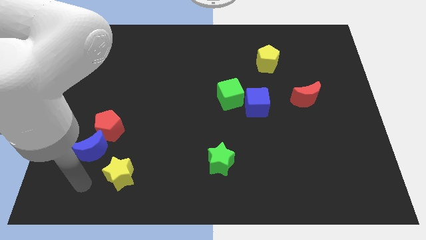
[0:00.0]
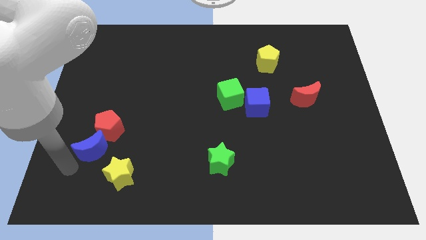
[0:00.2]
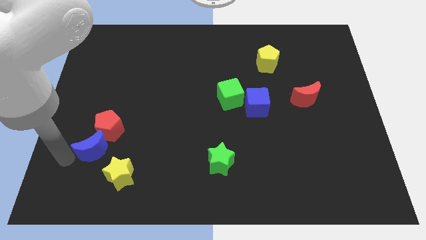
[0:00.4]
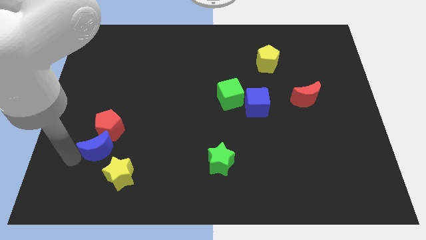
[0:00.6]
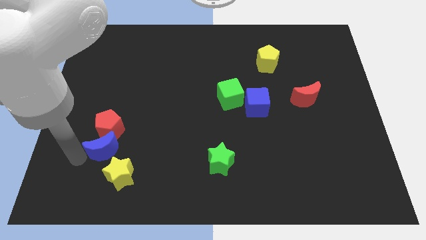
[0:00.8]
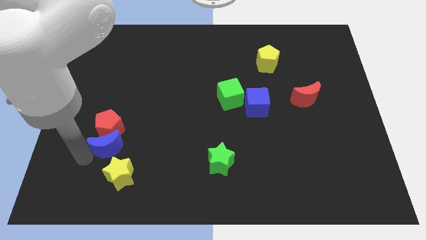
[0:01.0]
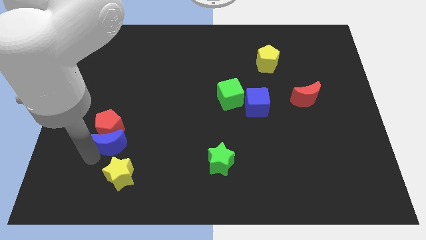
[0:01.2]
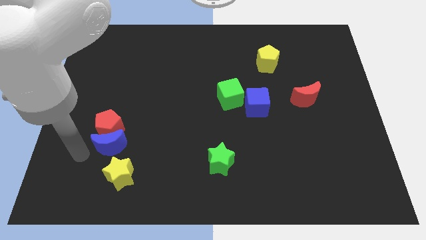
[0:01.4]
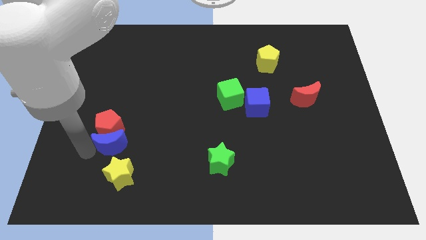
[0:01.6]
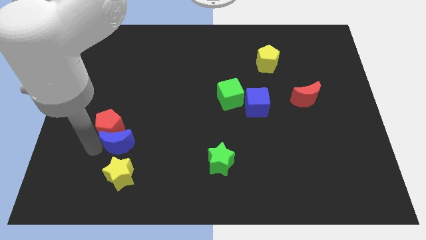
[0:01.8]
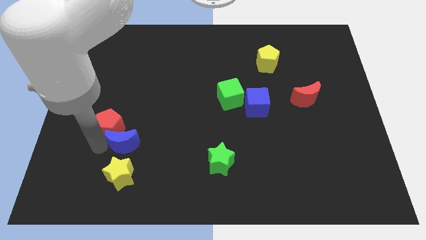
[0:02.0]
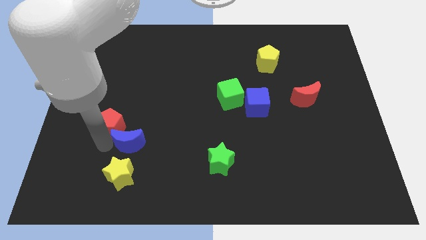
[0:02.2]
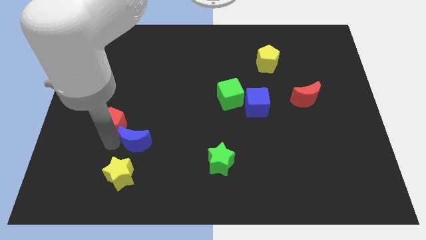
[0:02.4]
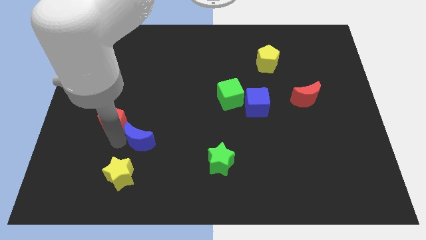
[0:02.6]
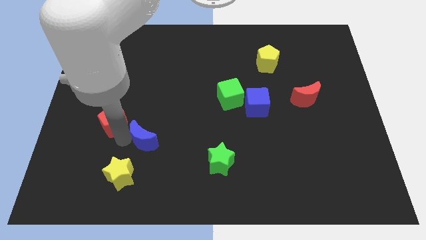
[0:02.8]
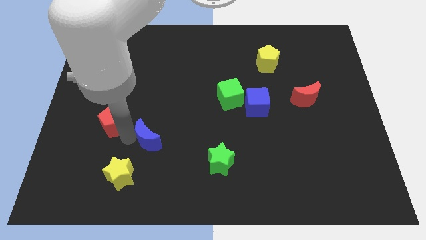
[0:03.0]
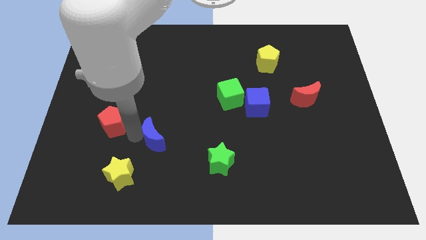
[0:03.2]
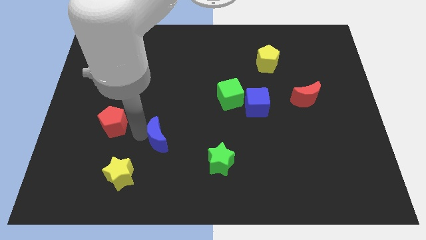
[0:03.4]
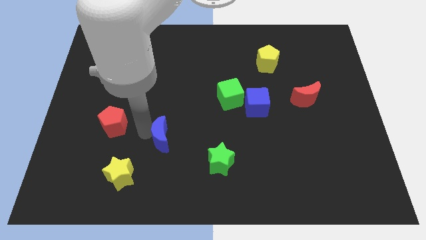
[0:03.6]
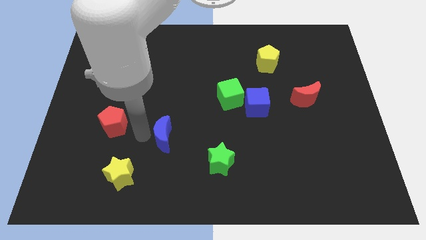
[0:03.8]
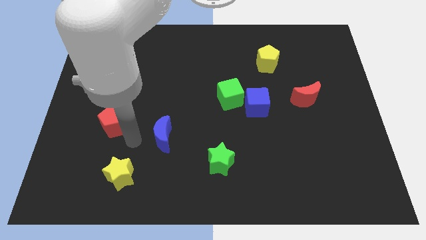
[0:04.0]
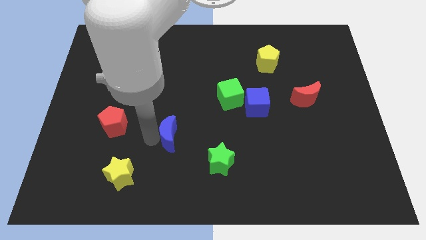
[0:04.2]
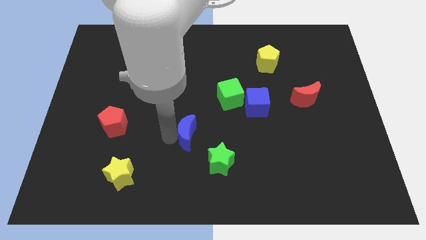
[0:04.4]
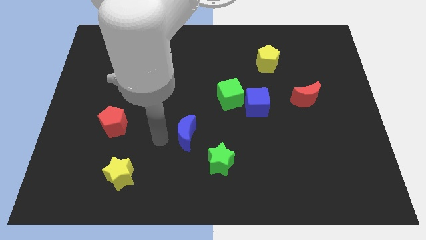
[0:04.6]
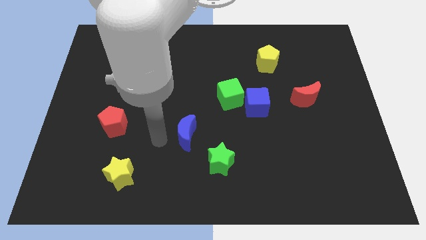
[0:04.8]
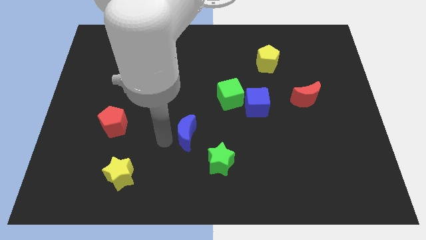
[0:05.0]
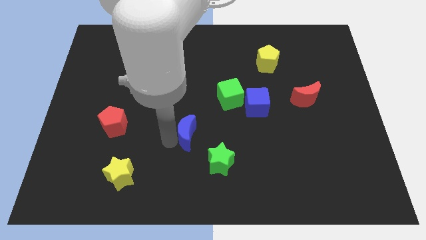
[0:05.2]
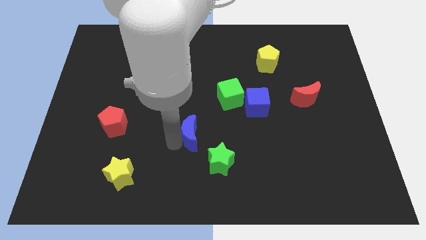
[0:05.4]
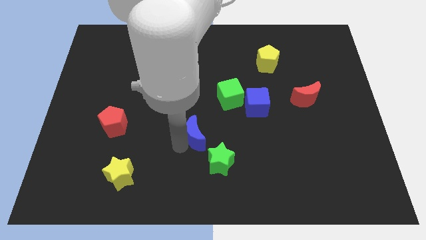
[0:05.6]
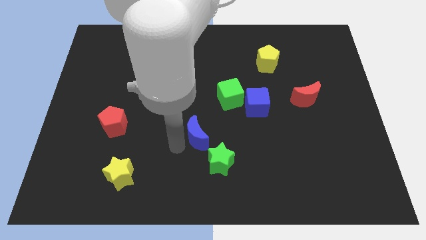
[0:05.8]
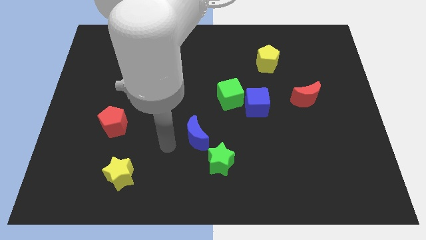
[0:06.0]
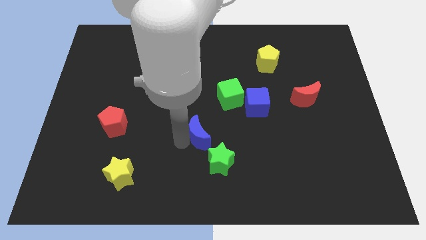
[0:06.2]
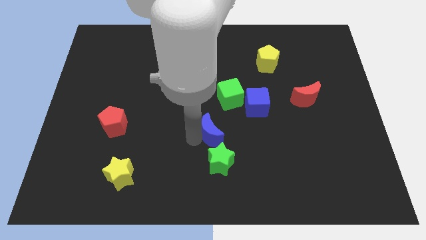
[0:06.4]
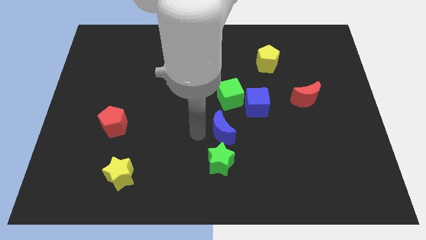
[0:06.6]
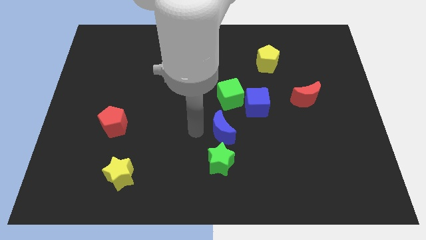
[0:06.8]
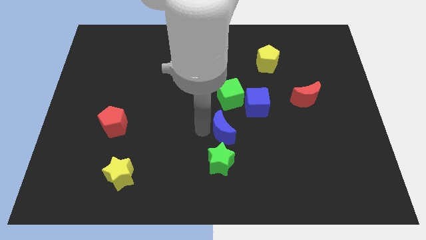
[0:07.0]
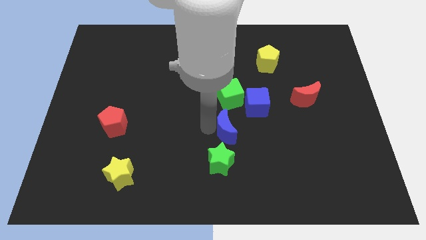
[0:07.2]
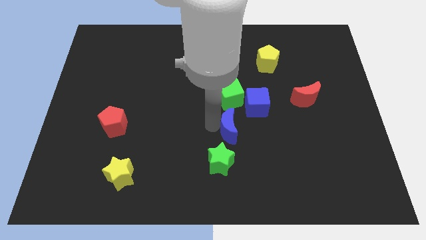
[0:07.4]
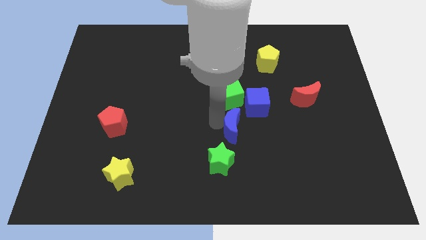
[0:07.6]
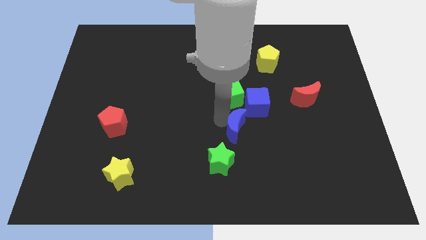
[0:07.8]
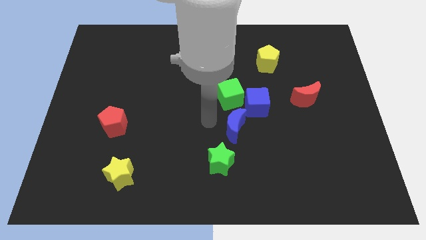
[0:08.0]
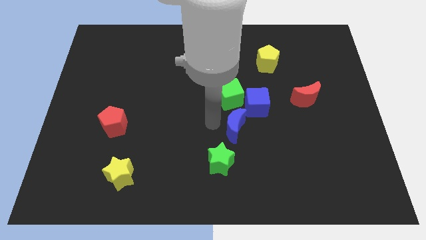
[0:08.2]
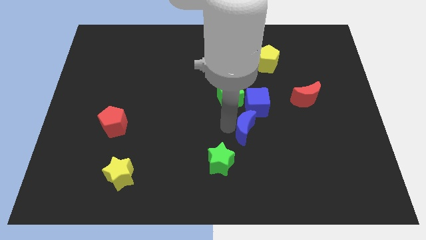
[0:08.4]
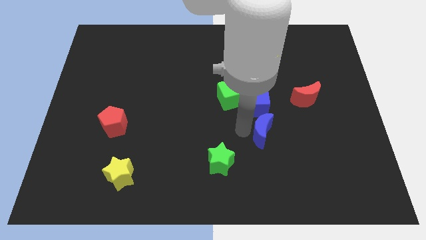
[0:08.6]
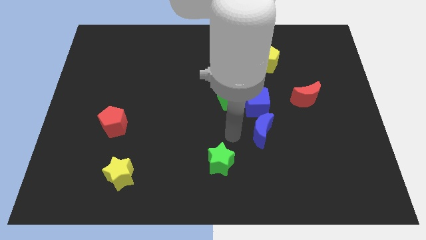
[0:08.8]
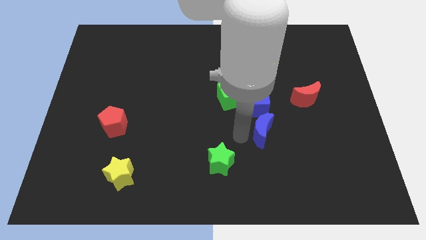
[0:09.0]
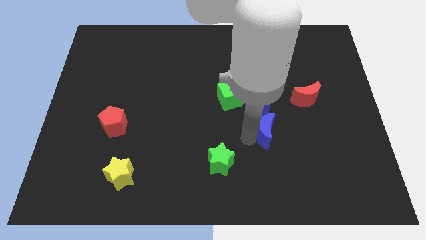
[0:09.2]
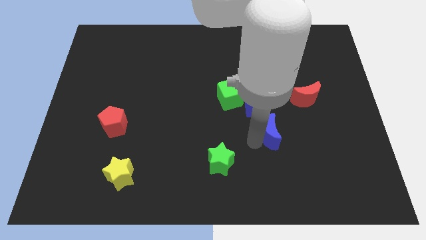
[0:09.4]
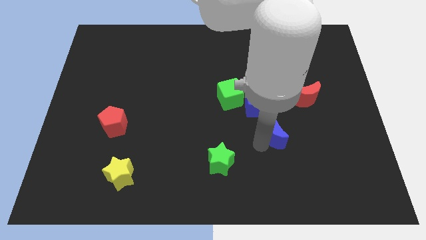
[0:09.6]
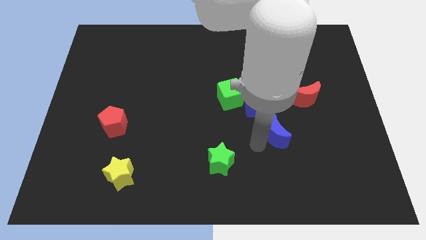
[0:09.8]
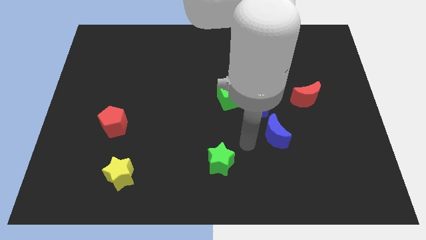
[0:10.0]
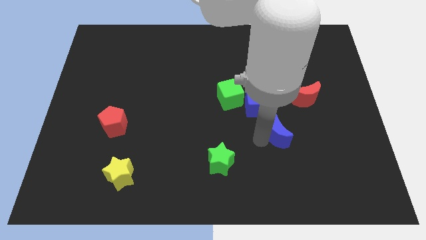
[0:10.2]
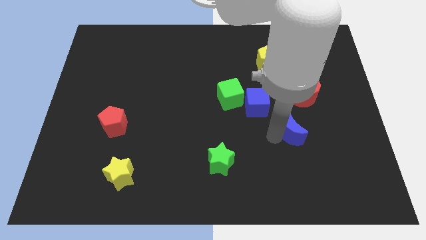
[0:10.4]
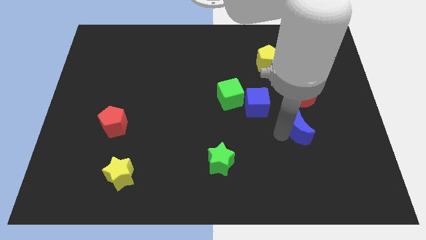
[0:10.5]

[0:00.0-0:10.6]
move the blue moon below the red moon

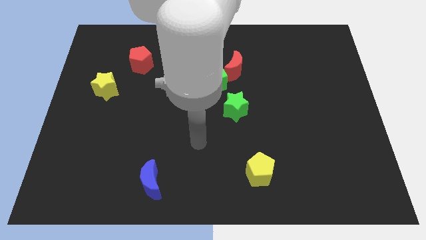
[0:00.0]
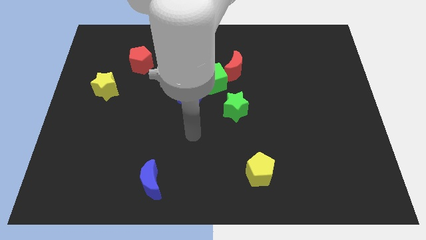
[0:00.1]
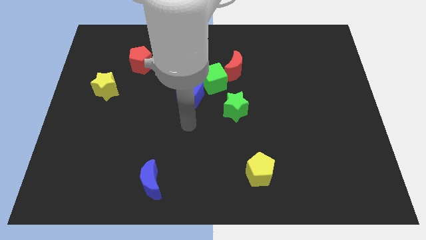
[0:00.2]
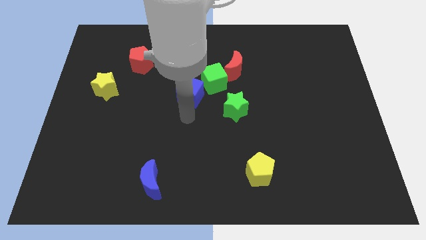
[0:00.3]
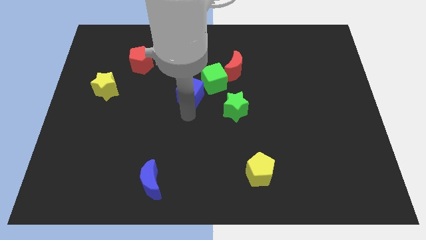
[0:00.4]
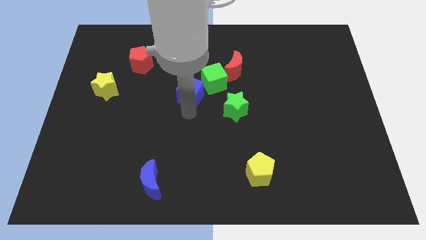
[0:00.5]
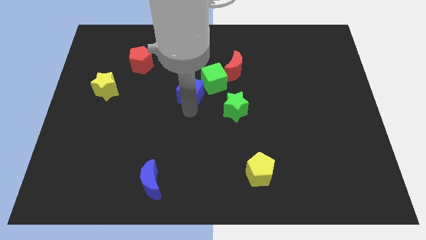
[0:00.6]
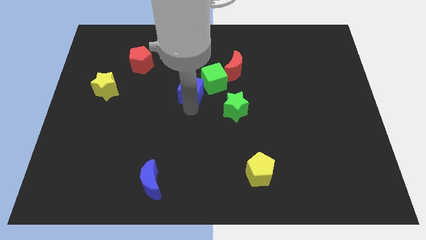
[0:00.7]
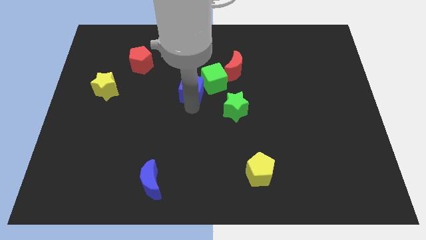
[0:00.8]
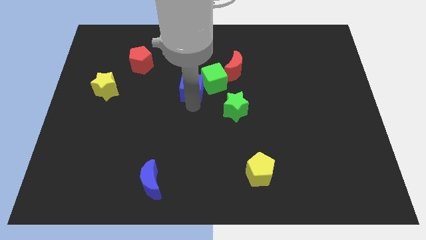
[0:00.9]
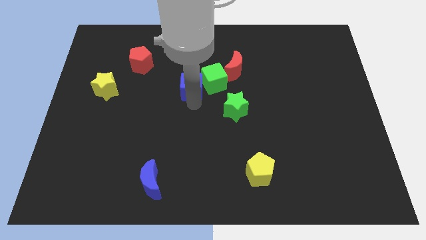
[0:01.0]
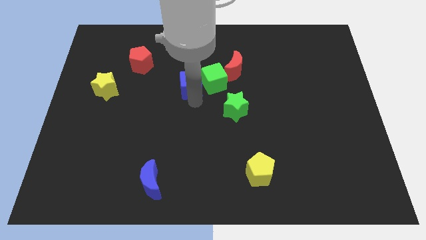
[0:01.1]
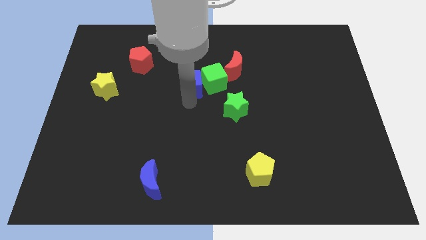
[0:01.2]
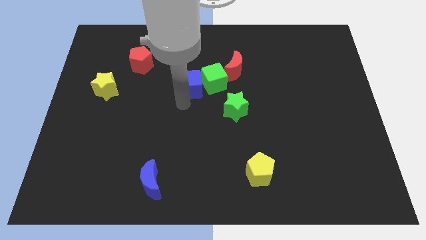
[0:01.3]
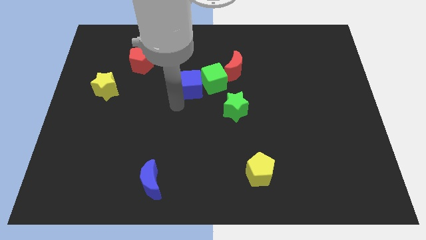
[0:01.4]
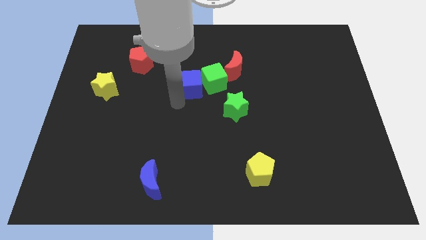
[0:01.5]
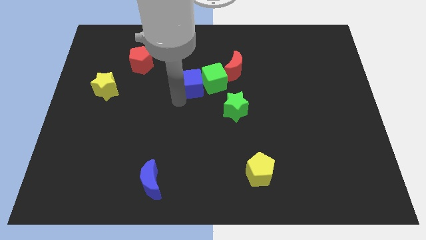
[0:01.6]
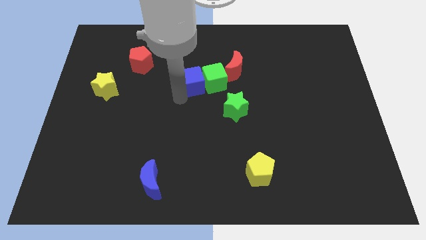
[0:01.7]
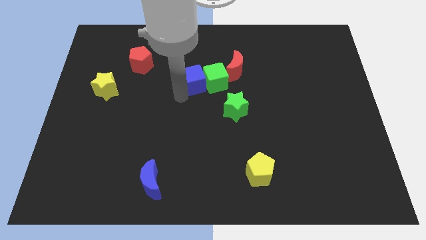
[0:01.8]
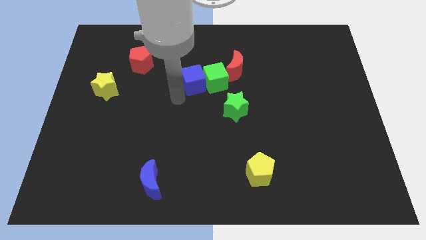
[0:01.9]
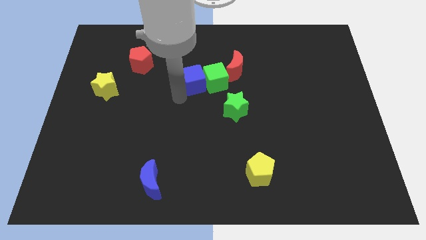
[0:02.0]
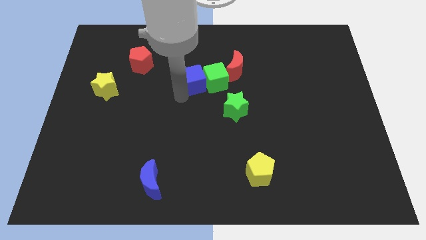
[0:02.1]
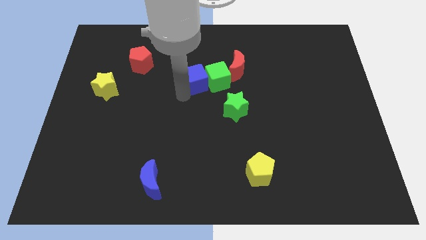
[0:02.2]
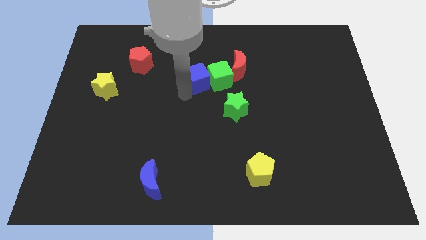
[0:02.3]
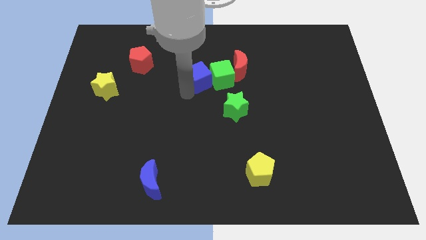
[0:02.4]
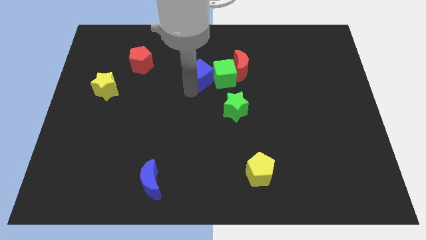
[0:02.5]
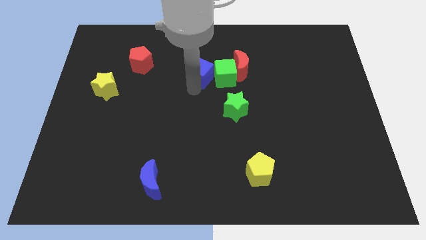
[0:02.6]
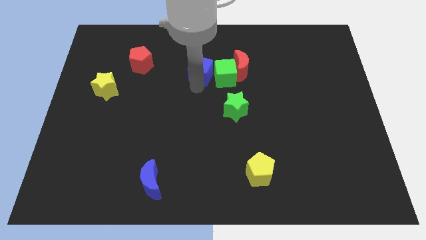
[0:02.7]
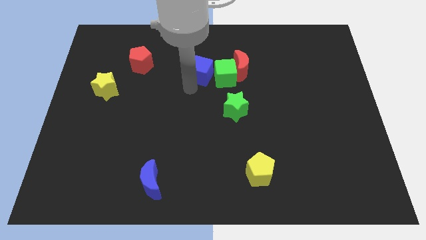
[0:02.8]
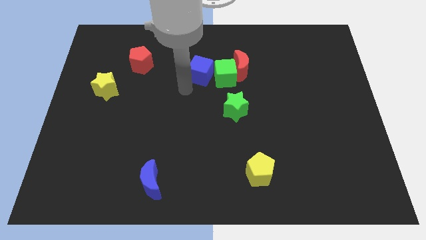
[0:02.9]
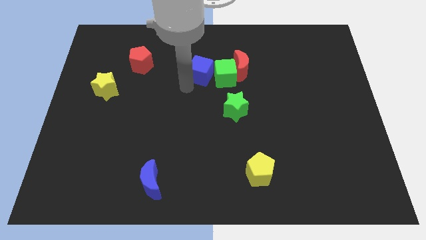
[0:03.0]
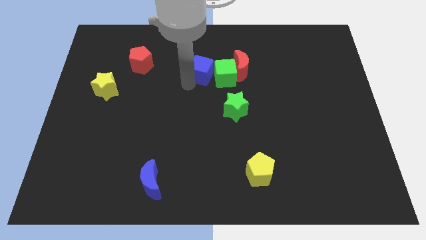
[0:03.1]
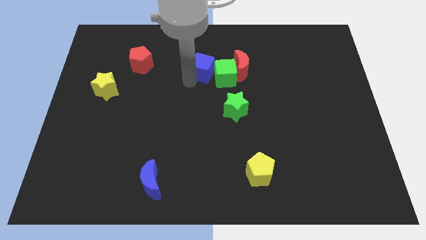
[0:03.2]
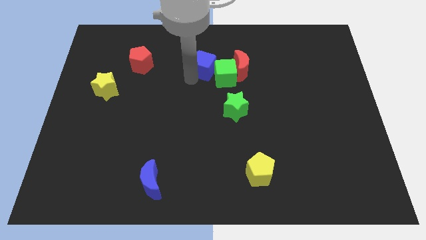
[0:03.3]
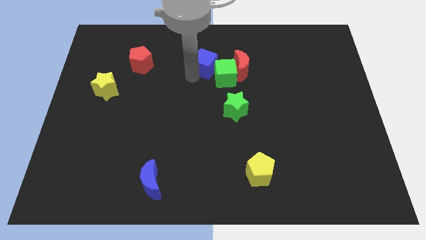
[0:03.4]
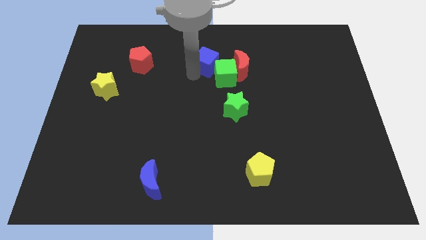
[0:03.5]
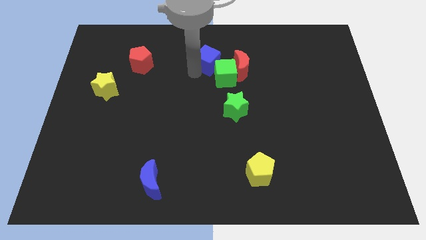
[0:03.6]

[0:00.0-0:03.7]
move the blue cube diagonally up and to the left of the red moon
